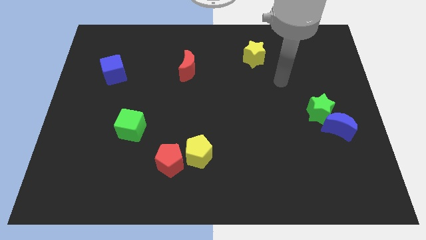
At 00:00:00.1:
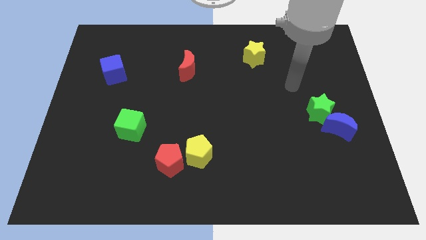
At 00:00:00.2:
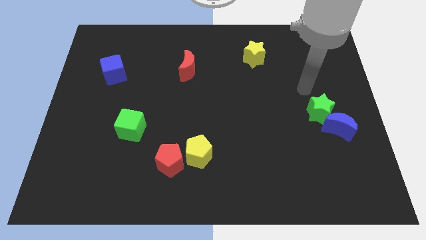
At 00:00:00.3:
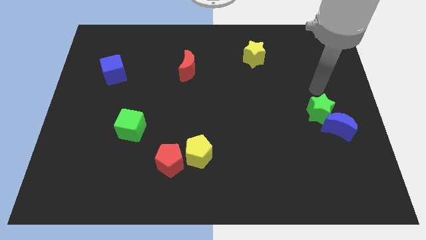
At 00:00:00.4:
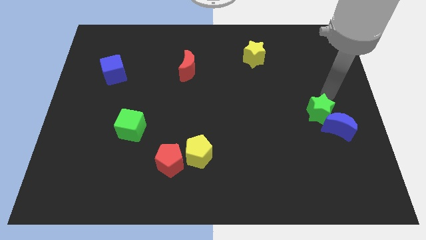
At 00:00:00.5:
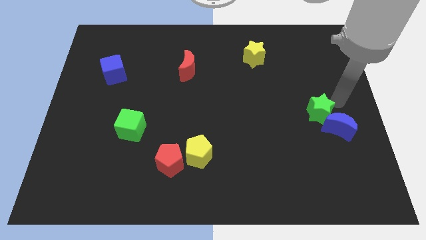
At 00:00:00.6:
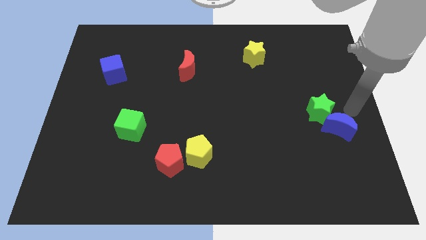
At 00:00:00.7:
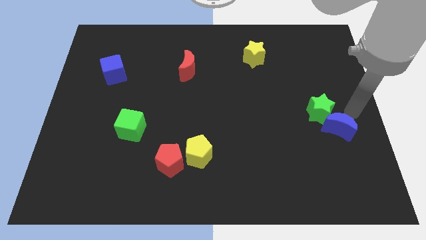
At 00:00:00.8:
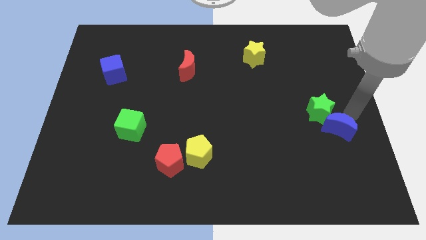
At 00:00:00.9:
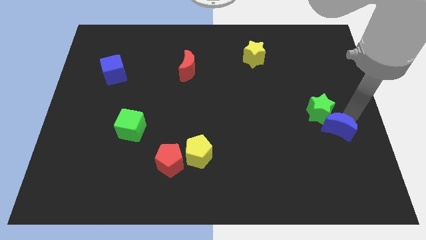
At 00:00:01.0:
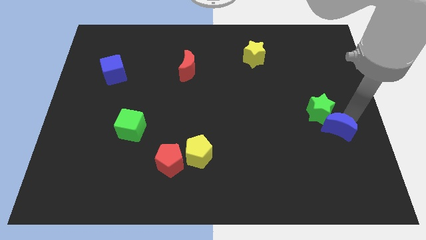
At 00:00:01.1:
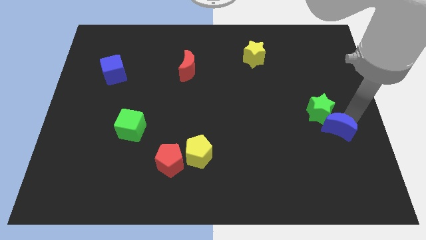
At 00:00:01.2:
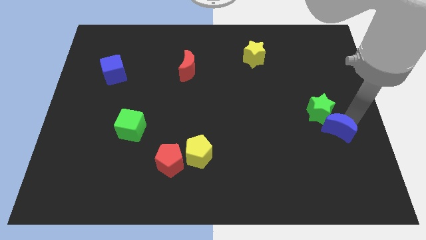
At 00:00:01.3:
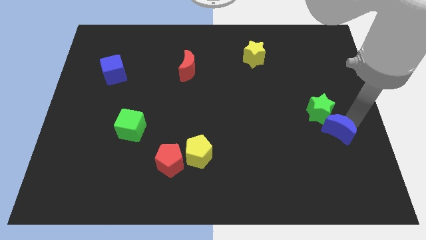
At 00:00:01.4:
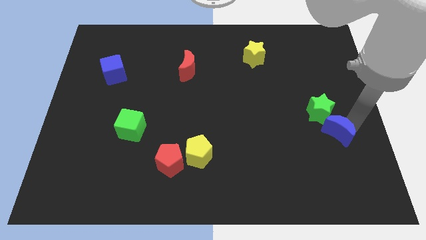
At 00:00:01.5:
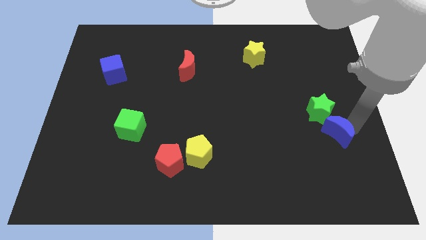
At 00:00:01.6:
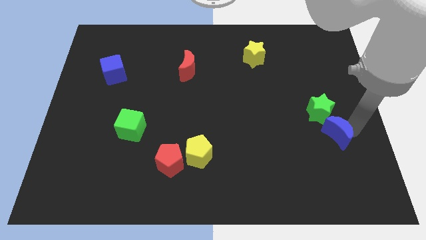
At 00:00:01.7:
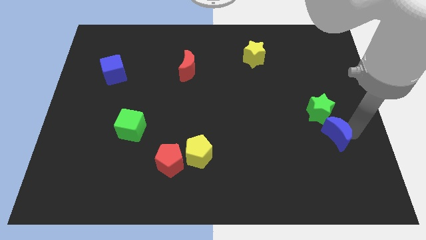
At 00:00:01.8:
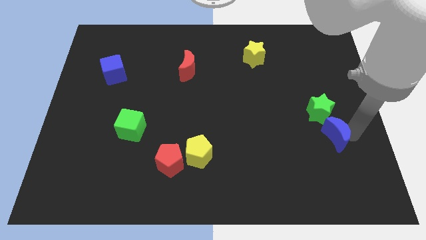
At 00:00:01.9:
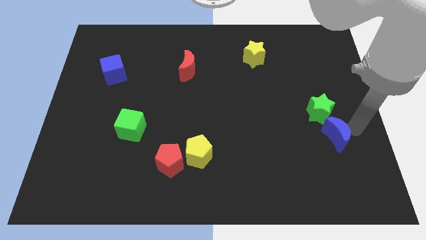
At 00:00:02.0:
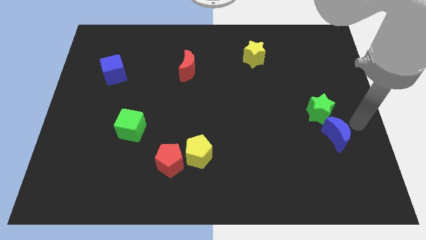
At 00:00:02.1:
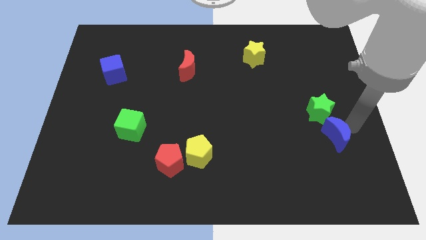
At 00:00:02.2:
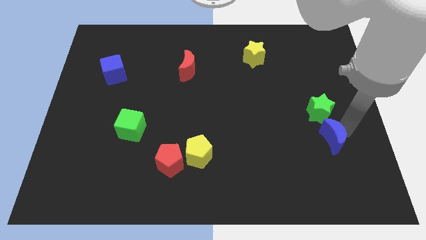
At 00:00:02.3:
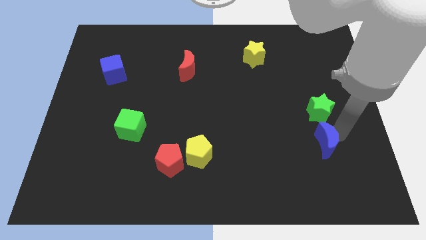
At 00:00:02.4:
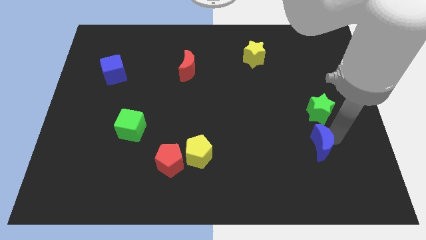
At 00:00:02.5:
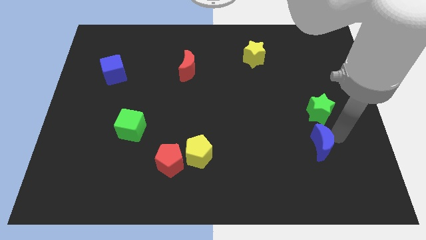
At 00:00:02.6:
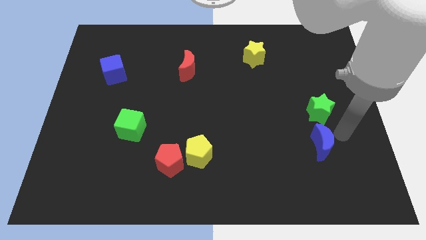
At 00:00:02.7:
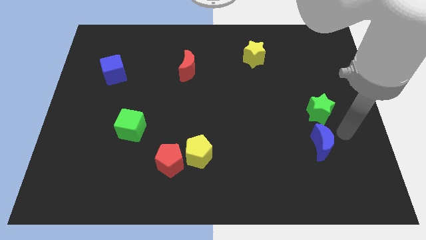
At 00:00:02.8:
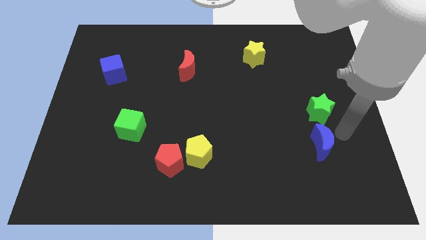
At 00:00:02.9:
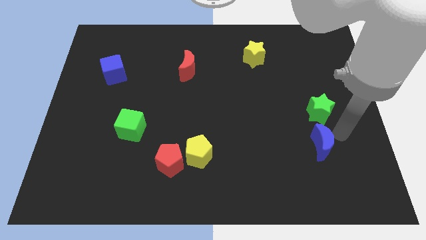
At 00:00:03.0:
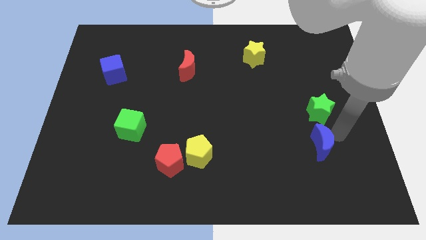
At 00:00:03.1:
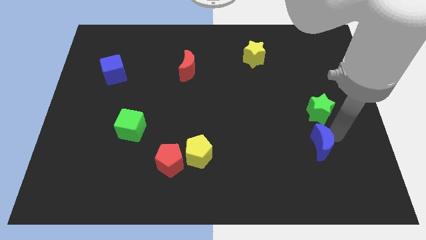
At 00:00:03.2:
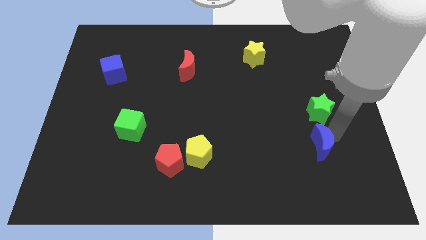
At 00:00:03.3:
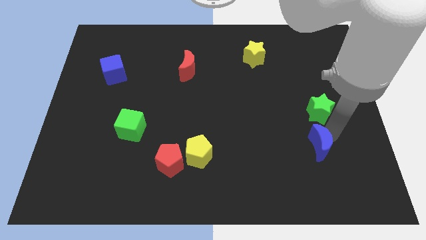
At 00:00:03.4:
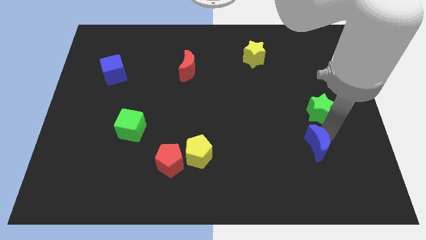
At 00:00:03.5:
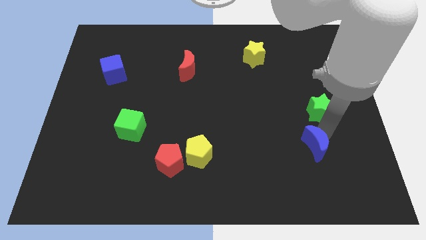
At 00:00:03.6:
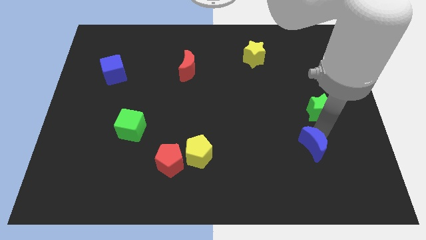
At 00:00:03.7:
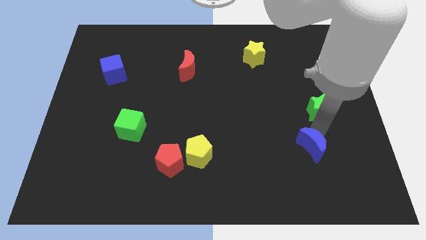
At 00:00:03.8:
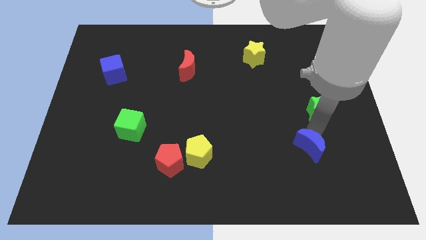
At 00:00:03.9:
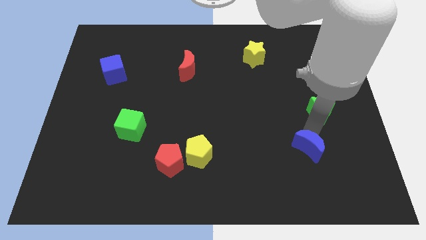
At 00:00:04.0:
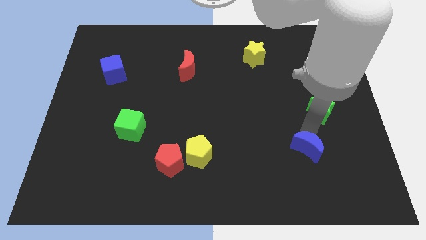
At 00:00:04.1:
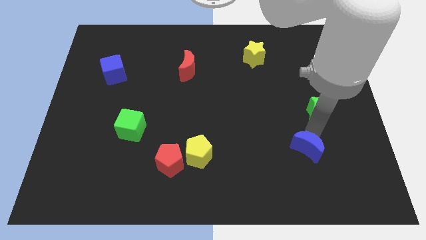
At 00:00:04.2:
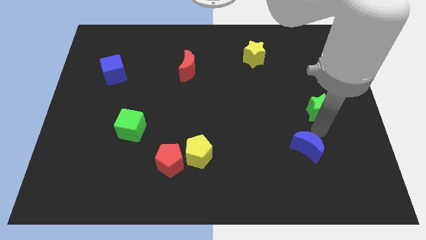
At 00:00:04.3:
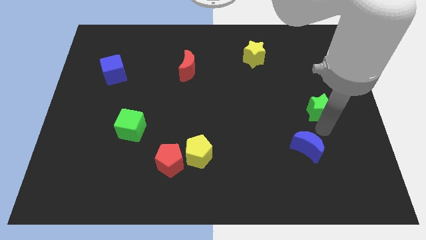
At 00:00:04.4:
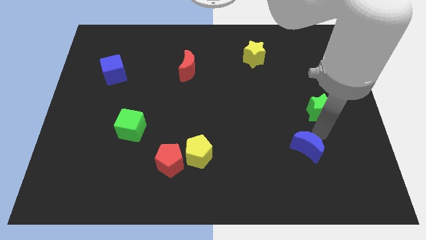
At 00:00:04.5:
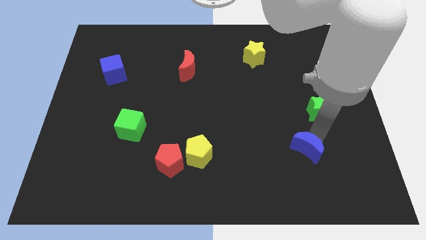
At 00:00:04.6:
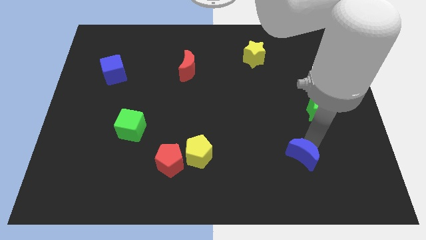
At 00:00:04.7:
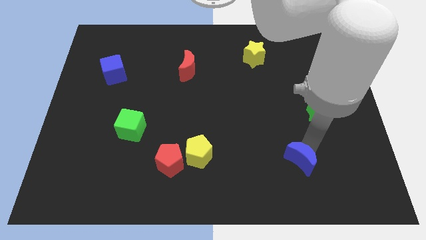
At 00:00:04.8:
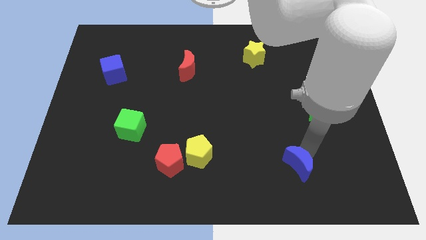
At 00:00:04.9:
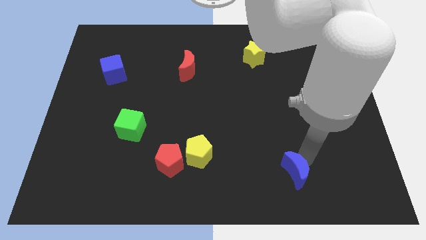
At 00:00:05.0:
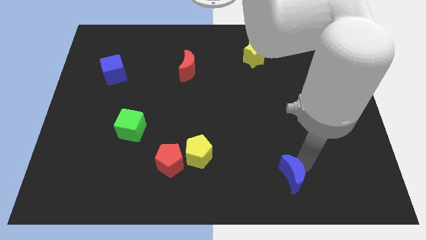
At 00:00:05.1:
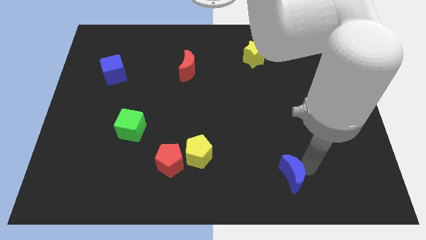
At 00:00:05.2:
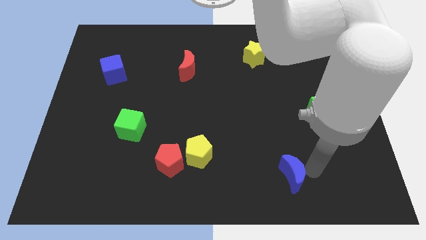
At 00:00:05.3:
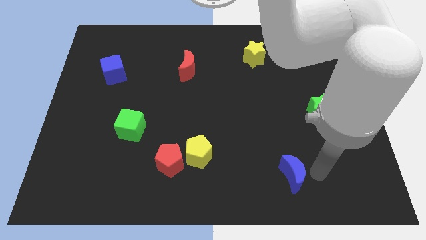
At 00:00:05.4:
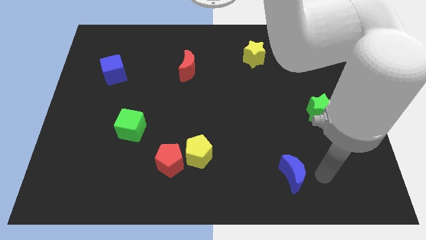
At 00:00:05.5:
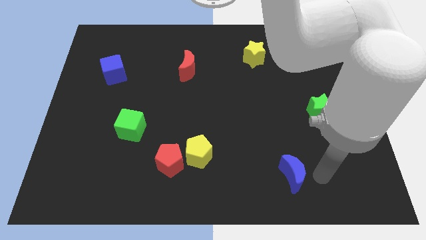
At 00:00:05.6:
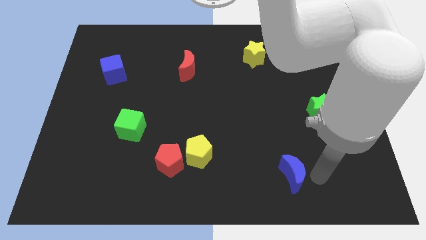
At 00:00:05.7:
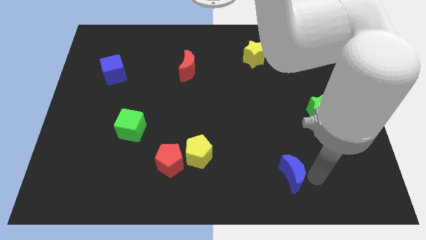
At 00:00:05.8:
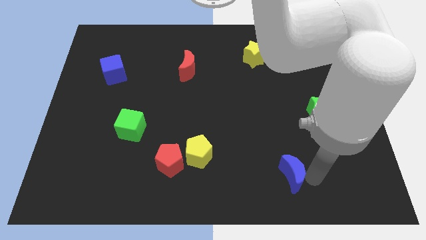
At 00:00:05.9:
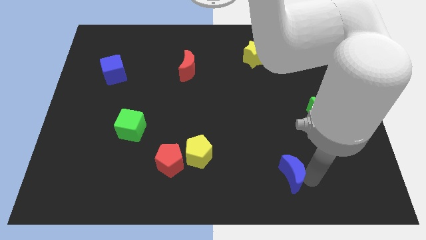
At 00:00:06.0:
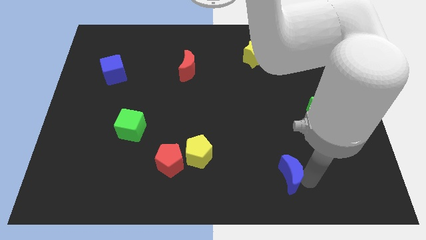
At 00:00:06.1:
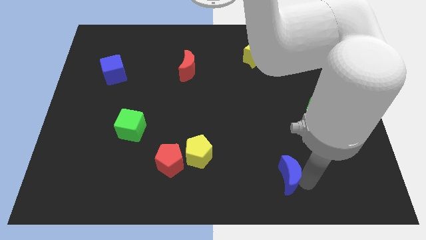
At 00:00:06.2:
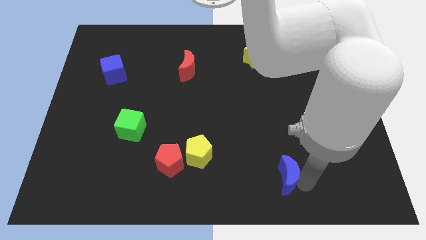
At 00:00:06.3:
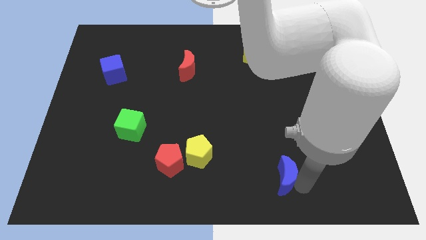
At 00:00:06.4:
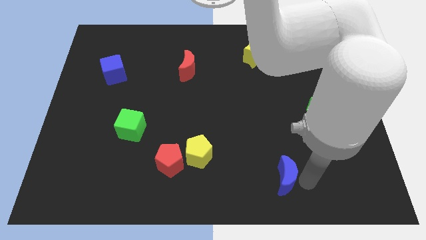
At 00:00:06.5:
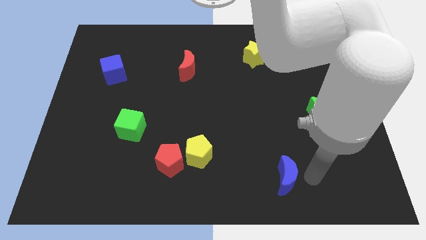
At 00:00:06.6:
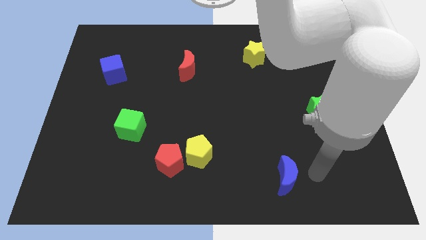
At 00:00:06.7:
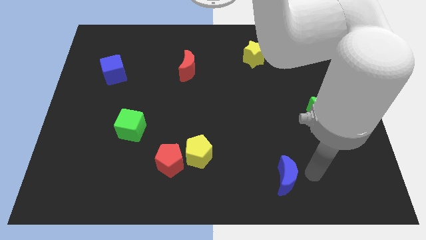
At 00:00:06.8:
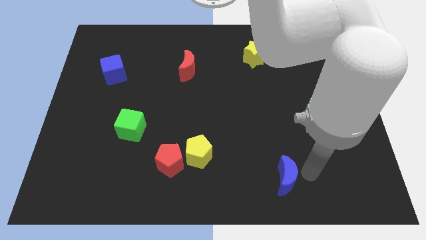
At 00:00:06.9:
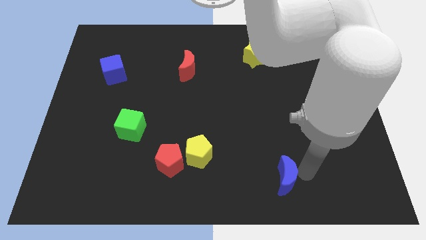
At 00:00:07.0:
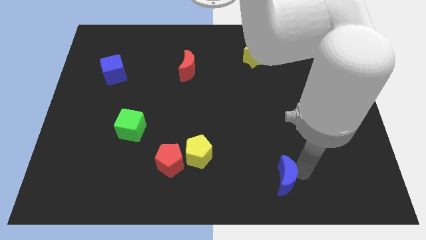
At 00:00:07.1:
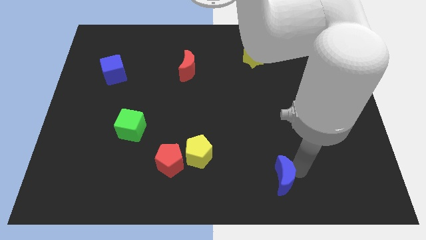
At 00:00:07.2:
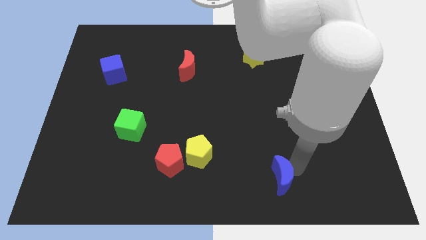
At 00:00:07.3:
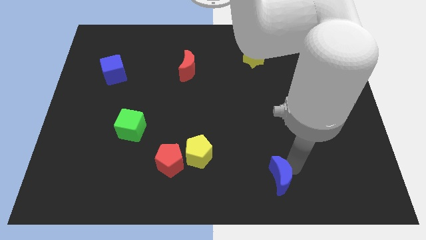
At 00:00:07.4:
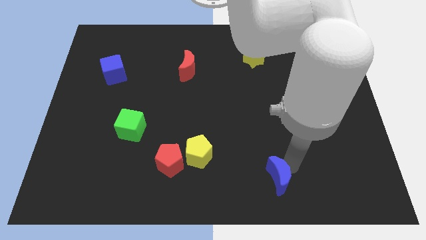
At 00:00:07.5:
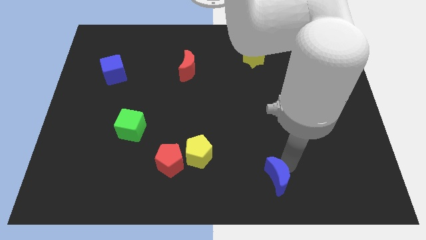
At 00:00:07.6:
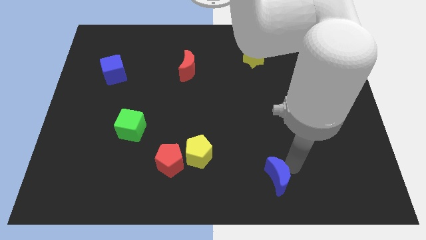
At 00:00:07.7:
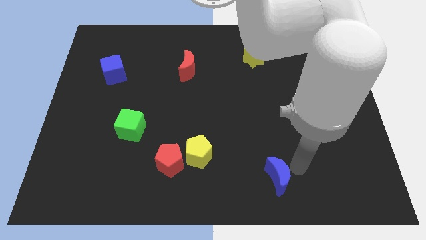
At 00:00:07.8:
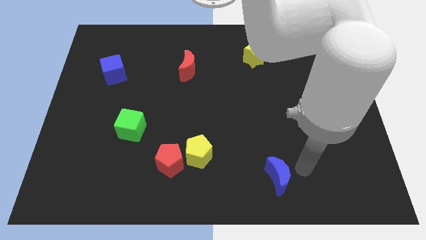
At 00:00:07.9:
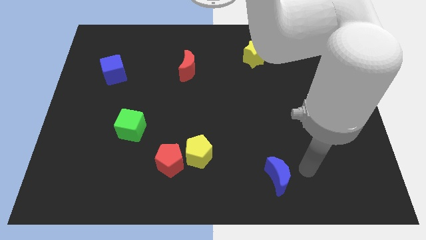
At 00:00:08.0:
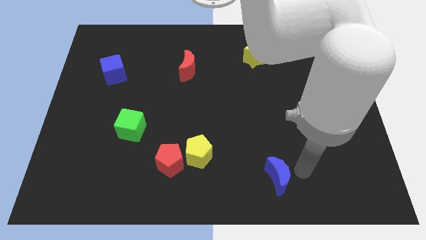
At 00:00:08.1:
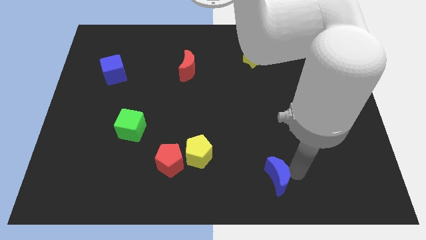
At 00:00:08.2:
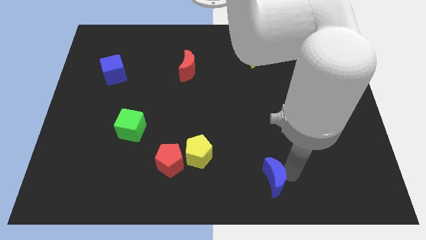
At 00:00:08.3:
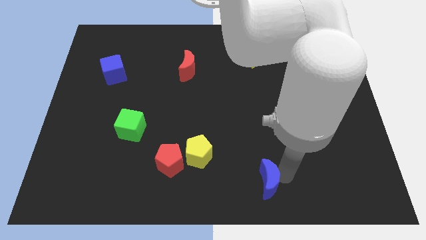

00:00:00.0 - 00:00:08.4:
put the blue moon to the bottom
